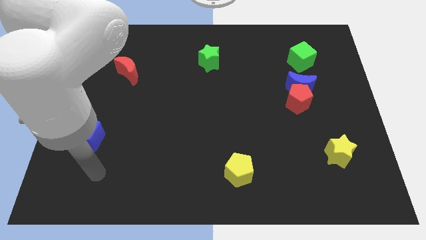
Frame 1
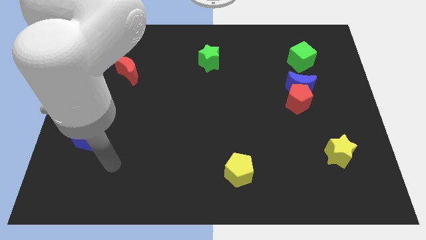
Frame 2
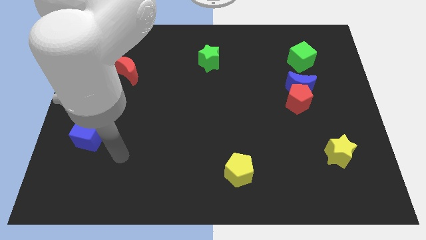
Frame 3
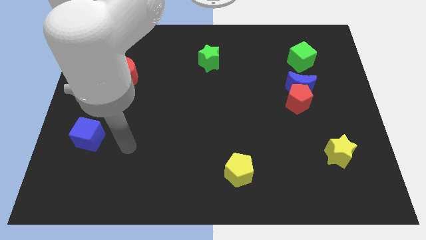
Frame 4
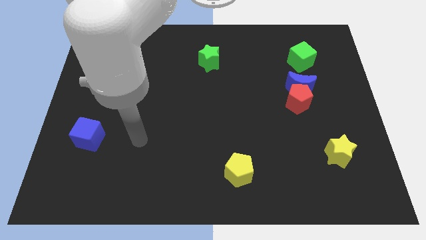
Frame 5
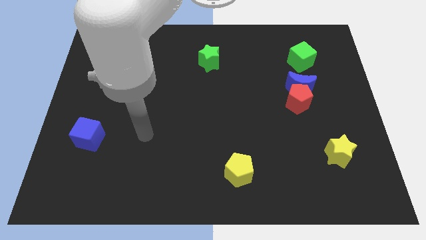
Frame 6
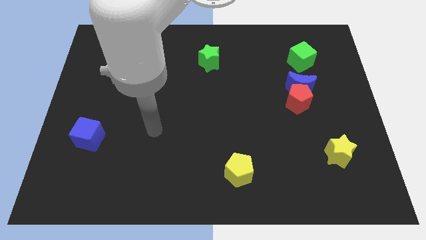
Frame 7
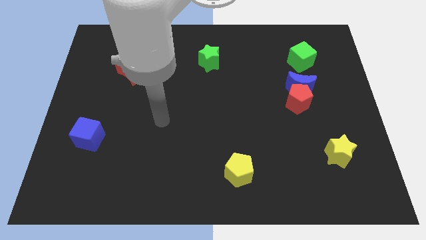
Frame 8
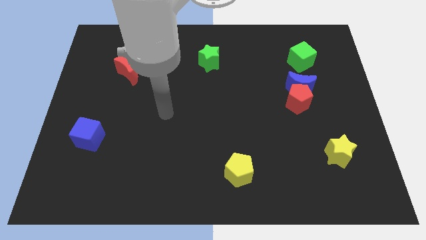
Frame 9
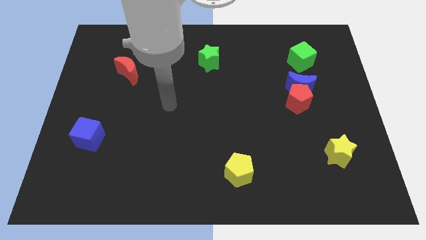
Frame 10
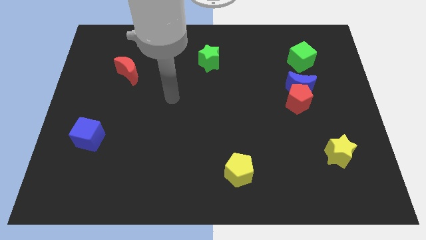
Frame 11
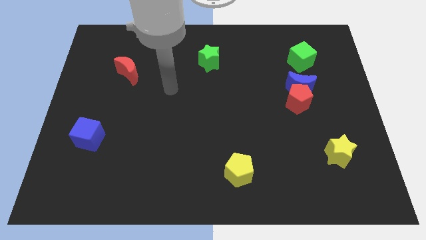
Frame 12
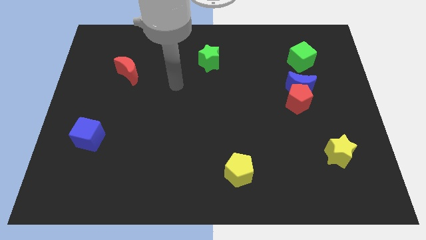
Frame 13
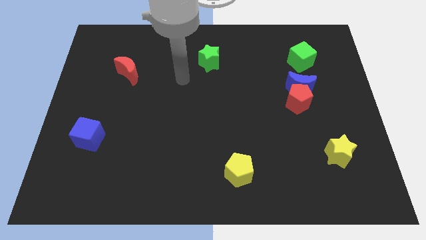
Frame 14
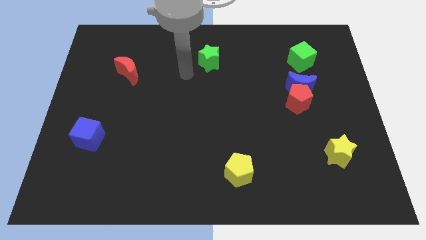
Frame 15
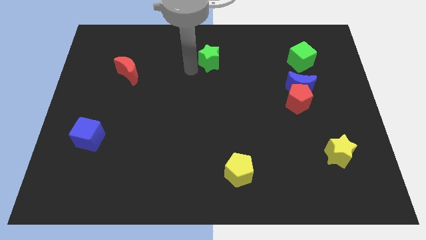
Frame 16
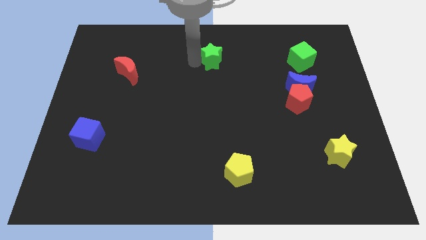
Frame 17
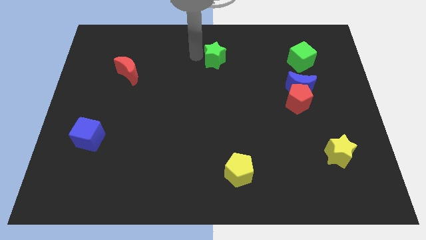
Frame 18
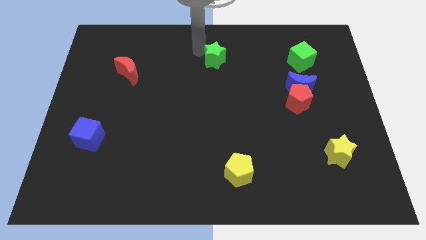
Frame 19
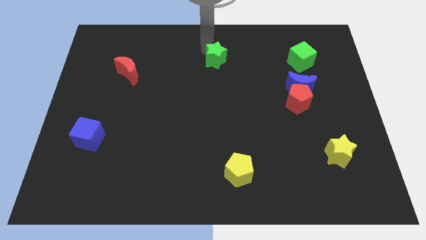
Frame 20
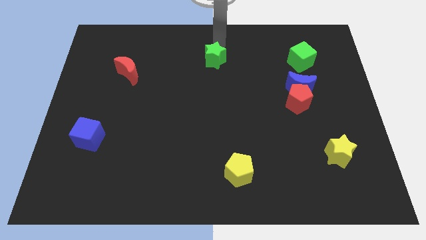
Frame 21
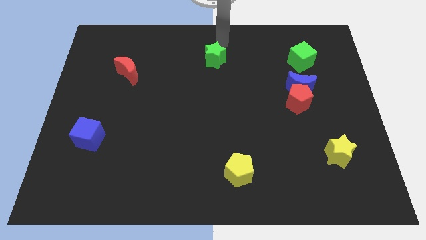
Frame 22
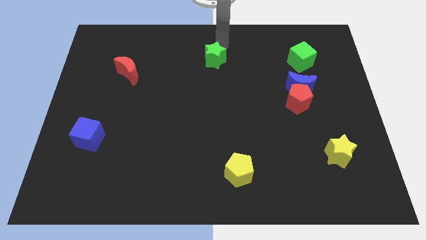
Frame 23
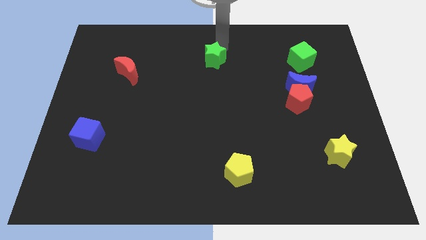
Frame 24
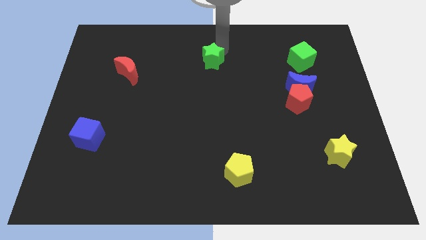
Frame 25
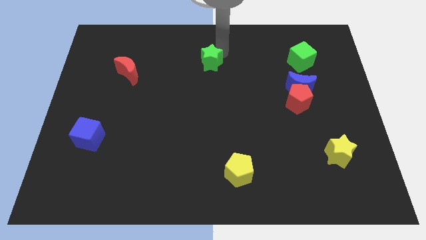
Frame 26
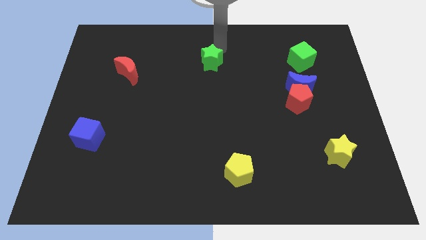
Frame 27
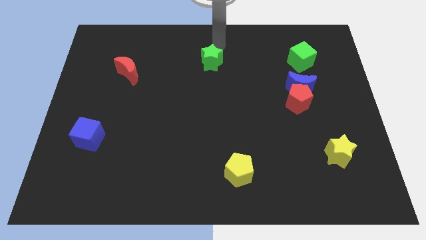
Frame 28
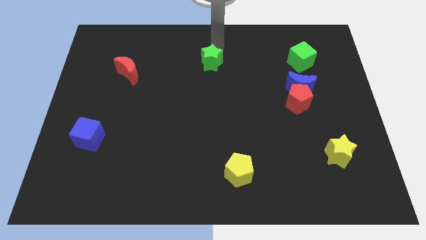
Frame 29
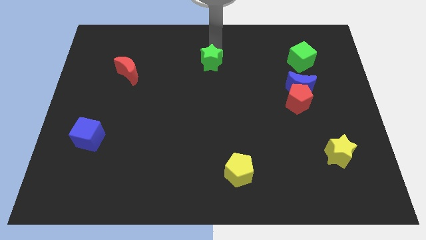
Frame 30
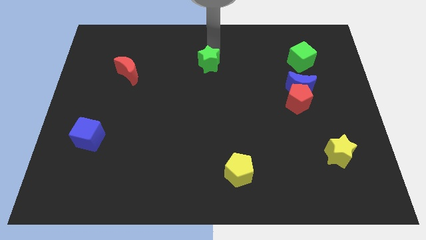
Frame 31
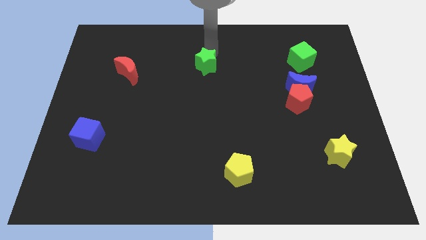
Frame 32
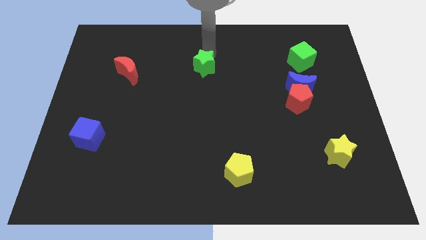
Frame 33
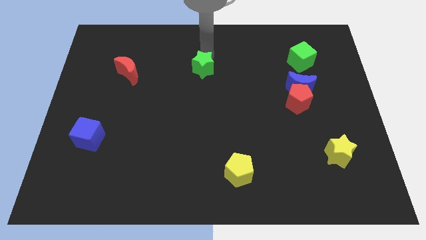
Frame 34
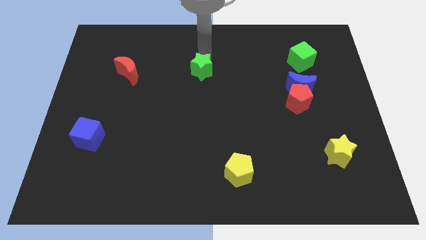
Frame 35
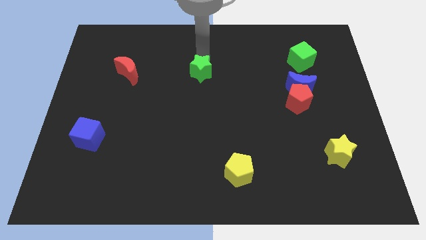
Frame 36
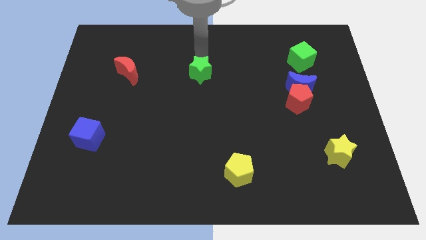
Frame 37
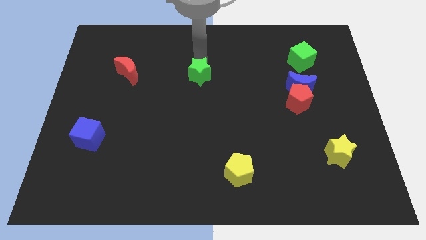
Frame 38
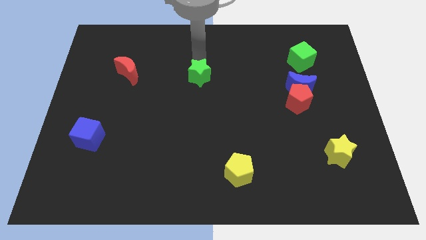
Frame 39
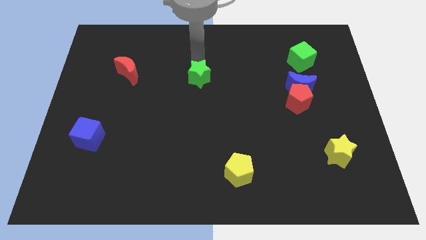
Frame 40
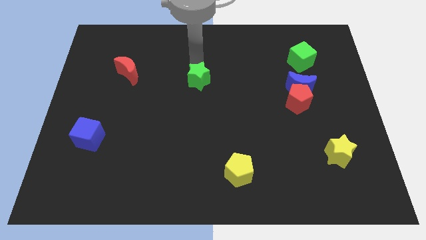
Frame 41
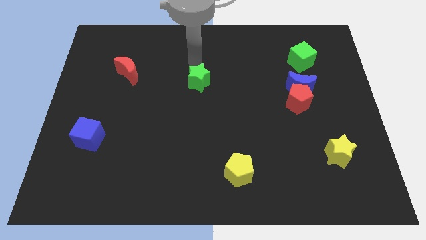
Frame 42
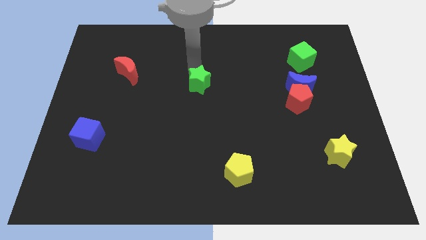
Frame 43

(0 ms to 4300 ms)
slide the green star somewhat down

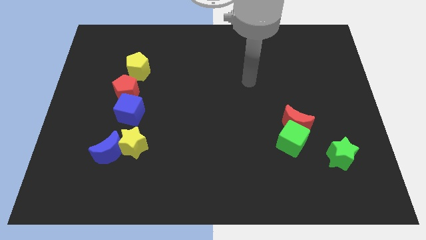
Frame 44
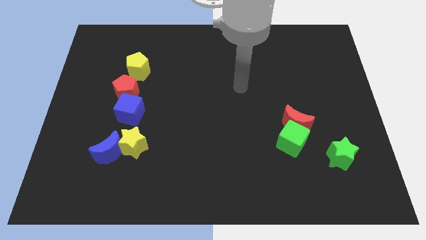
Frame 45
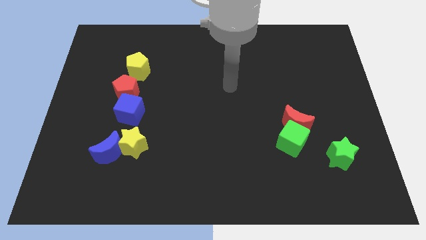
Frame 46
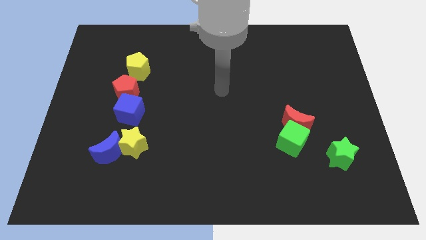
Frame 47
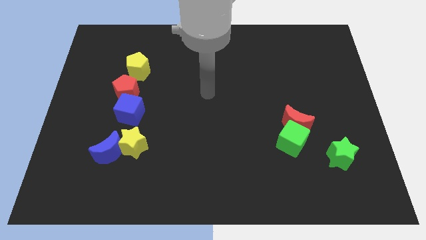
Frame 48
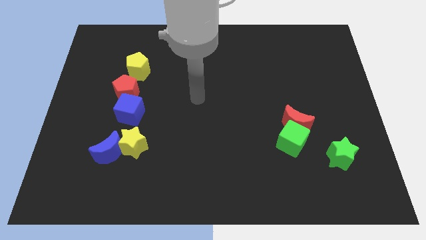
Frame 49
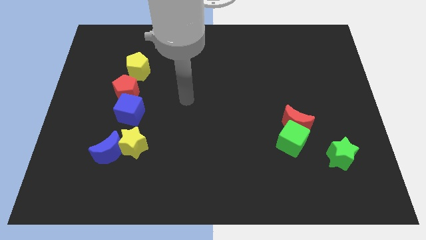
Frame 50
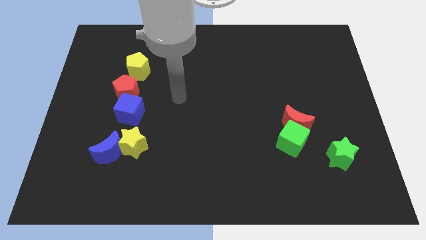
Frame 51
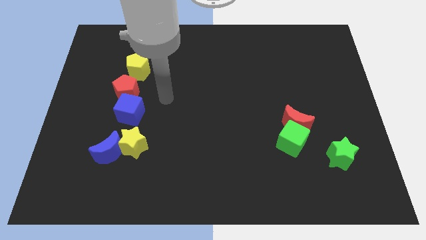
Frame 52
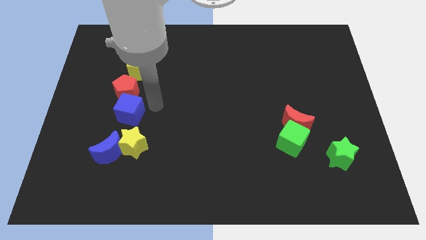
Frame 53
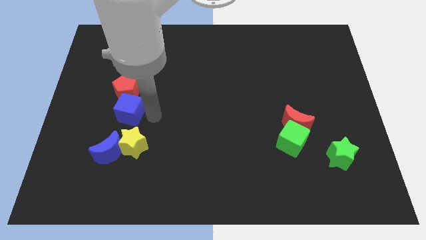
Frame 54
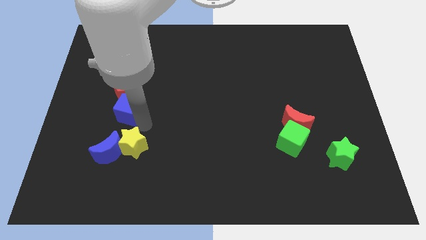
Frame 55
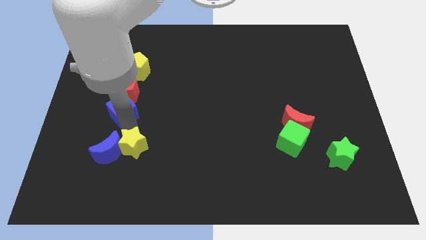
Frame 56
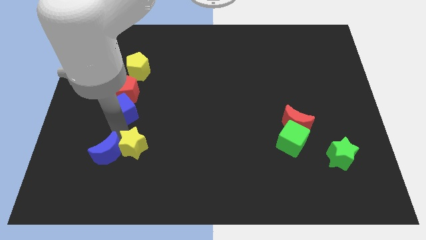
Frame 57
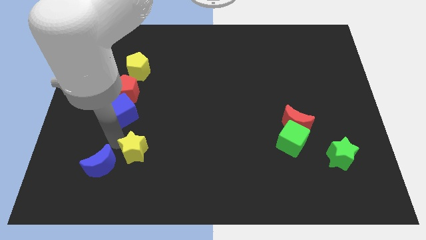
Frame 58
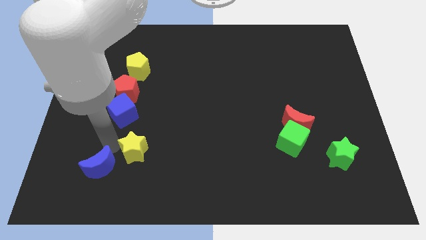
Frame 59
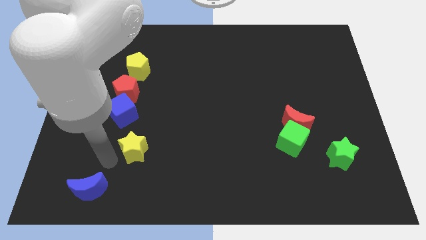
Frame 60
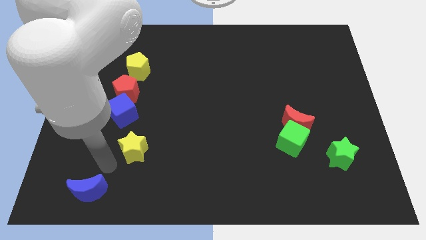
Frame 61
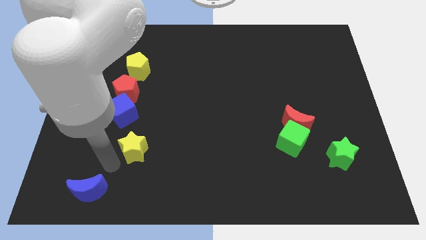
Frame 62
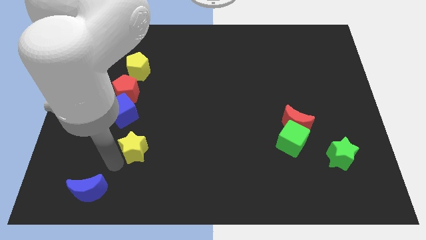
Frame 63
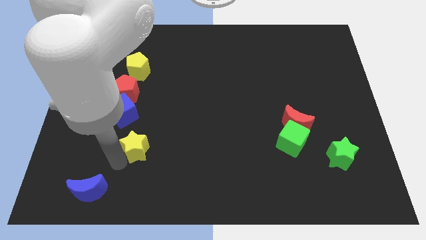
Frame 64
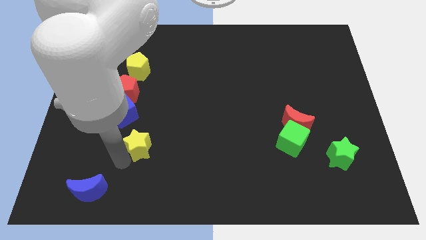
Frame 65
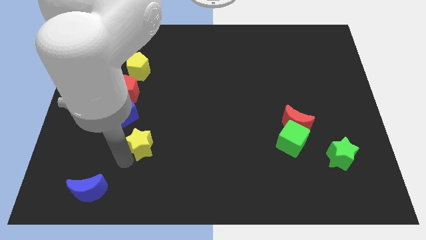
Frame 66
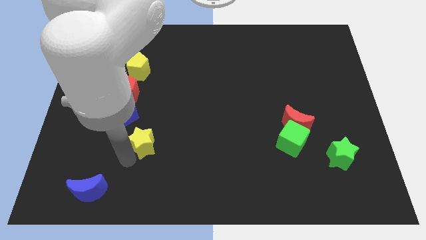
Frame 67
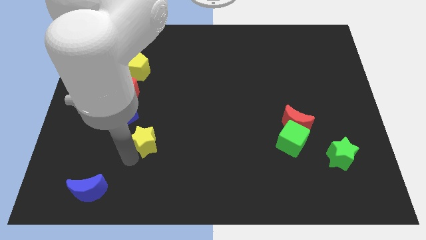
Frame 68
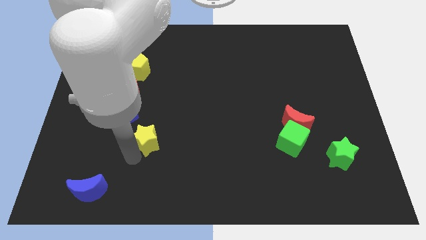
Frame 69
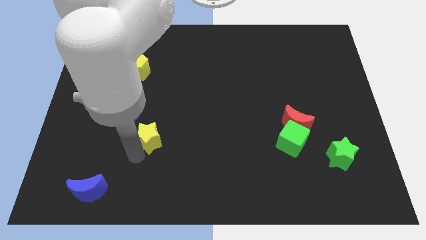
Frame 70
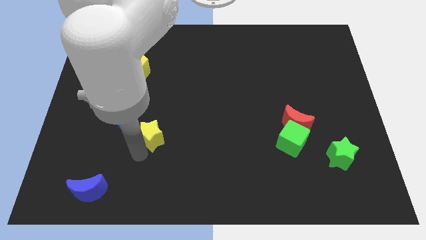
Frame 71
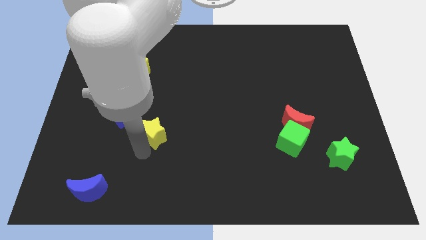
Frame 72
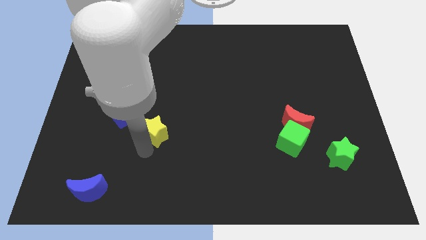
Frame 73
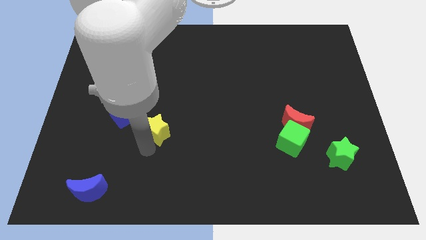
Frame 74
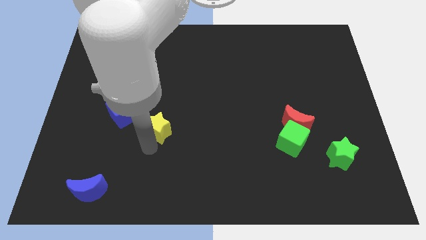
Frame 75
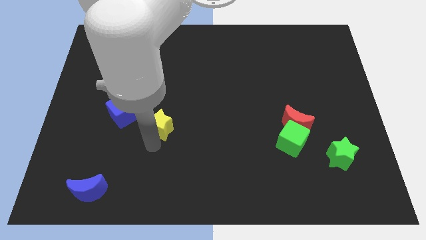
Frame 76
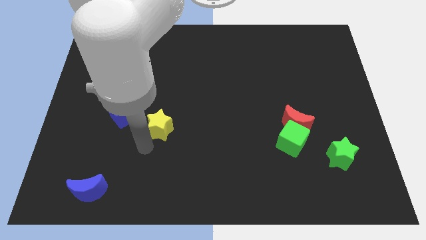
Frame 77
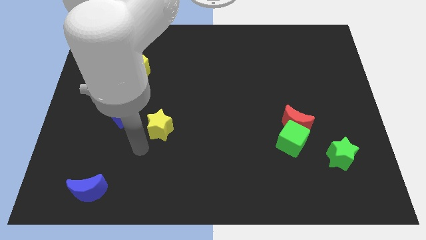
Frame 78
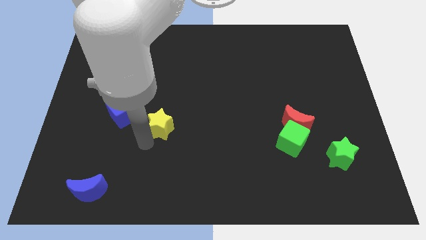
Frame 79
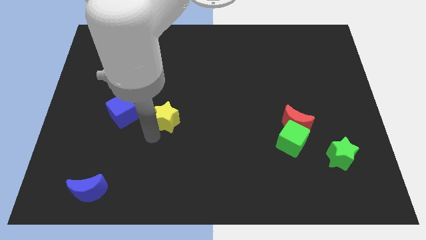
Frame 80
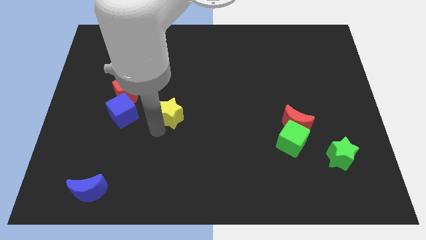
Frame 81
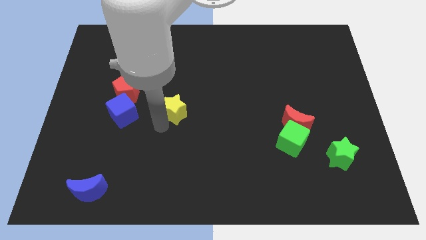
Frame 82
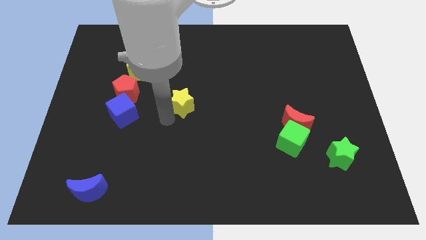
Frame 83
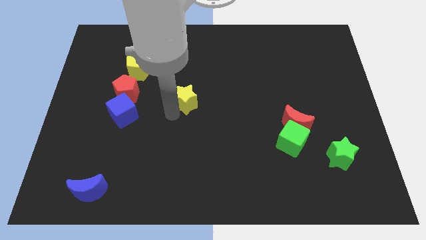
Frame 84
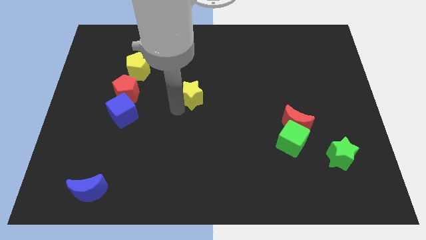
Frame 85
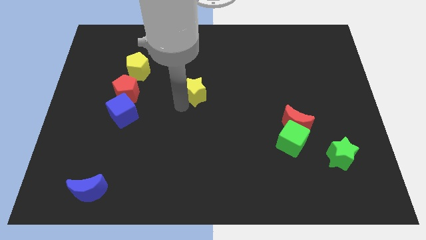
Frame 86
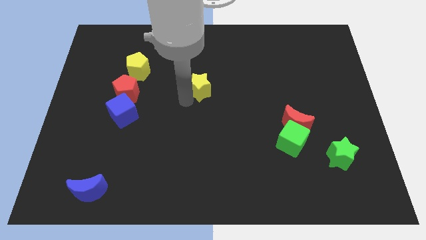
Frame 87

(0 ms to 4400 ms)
move the yellow star up and then right
